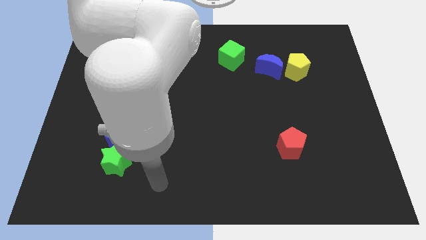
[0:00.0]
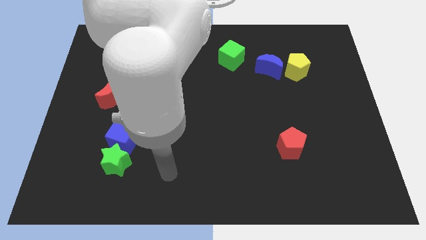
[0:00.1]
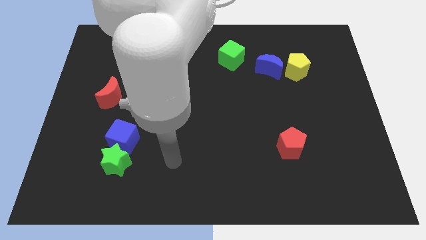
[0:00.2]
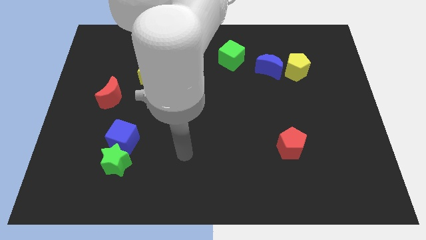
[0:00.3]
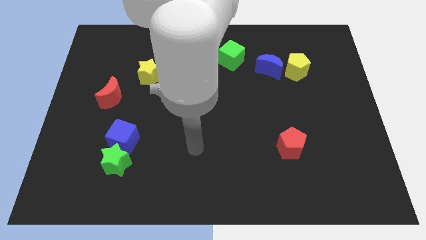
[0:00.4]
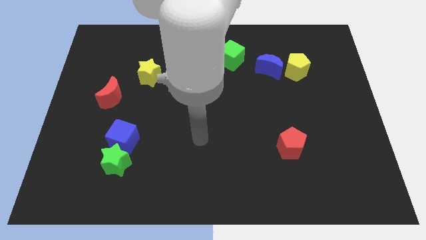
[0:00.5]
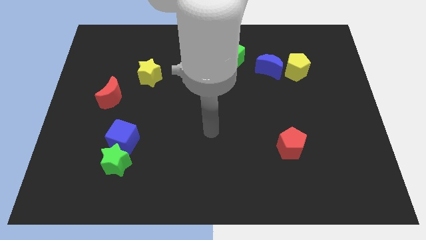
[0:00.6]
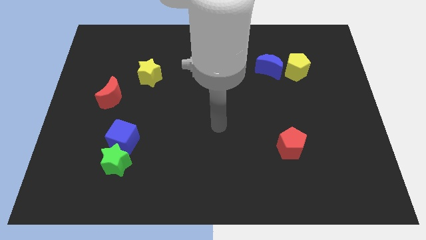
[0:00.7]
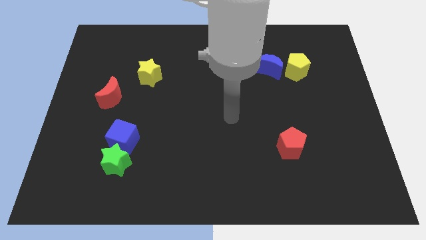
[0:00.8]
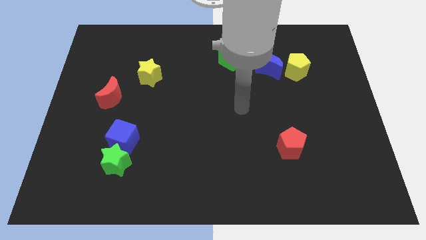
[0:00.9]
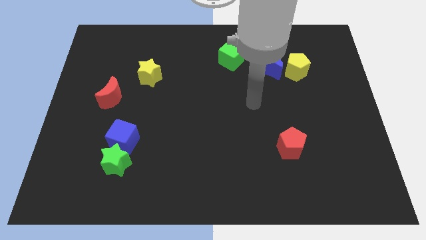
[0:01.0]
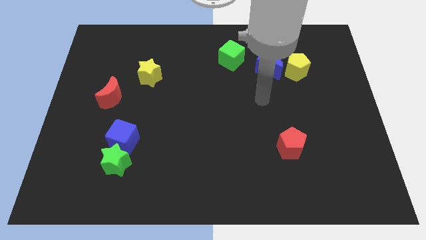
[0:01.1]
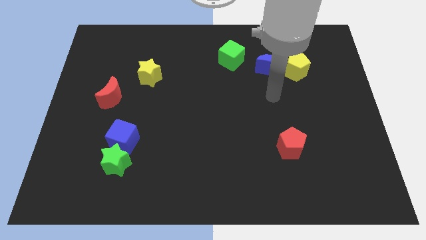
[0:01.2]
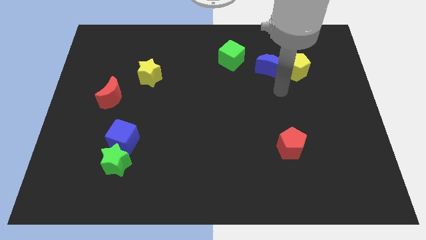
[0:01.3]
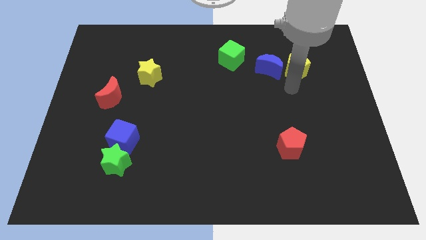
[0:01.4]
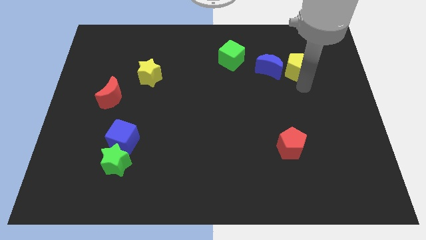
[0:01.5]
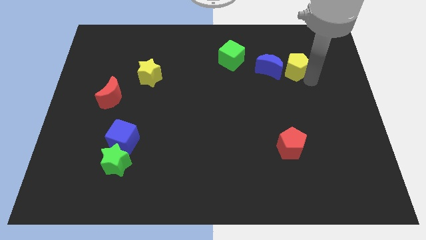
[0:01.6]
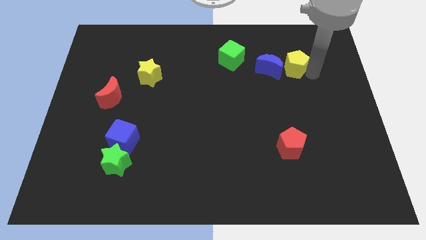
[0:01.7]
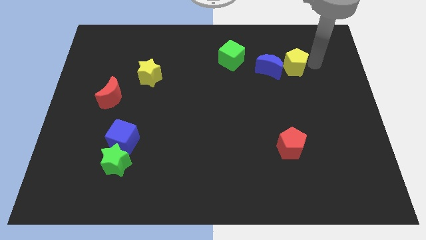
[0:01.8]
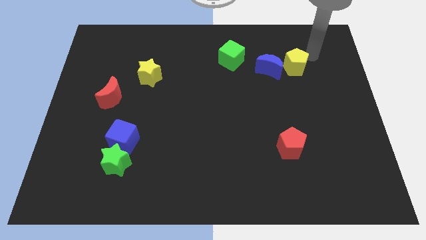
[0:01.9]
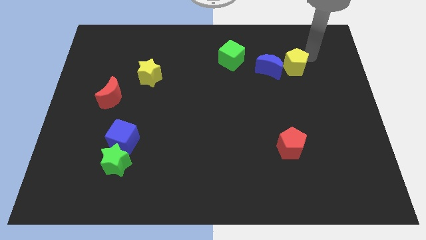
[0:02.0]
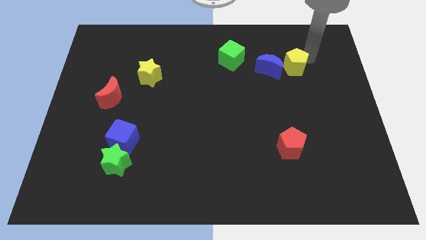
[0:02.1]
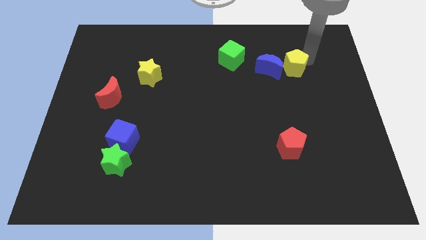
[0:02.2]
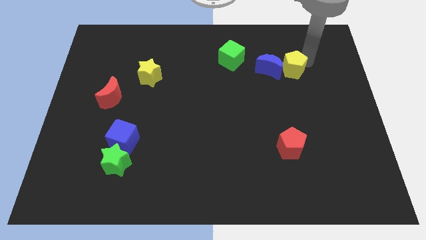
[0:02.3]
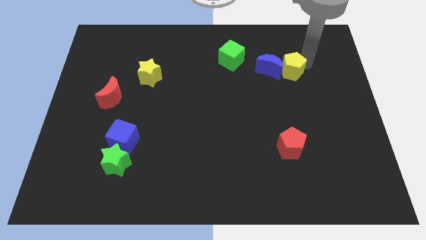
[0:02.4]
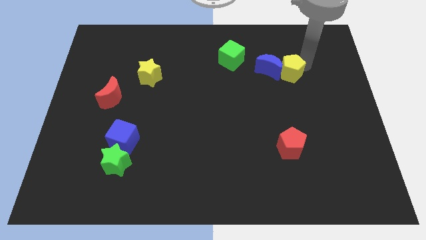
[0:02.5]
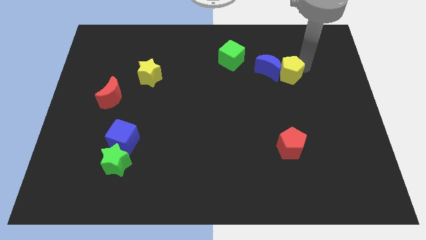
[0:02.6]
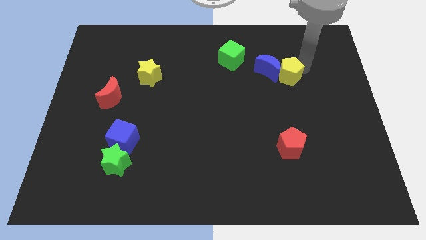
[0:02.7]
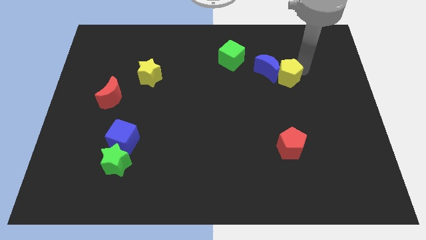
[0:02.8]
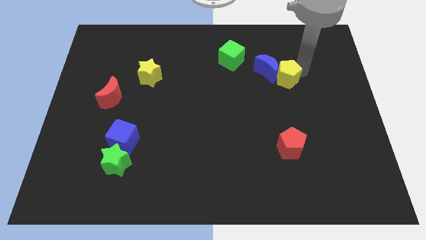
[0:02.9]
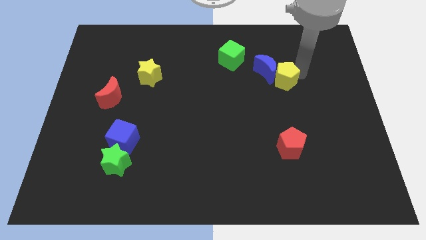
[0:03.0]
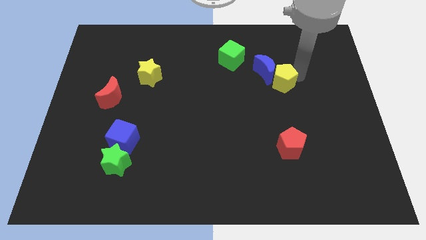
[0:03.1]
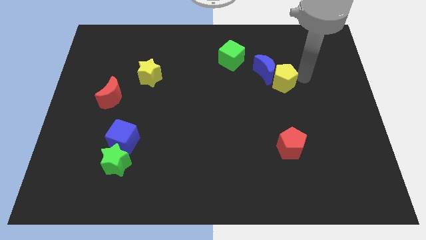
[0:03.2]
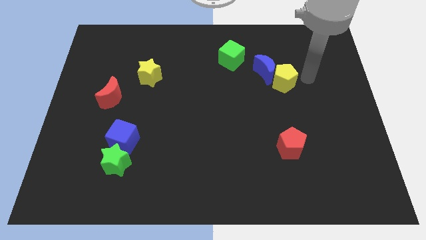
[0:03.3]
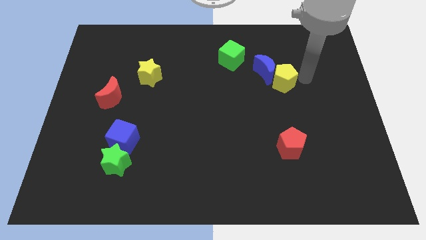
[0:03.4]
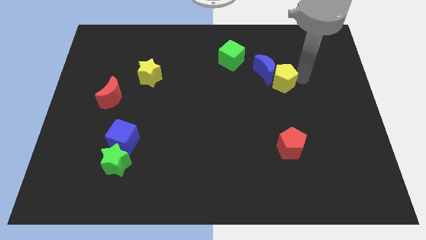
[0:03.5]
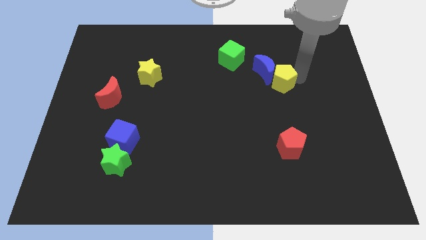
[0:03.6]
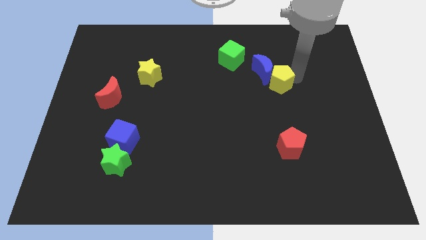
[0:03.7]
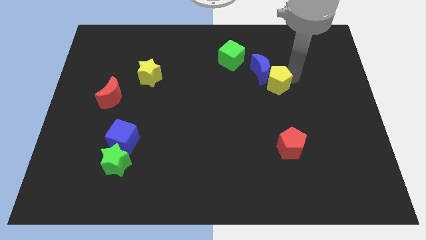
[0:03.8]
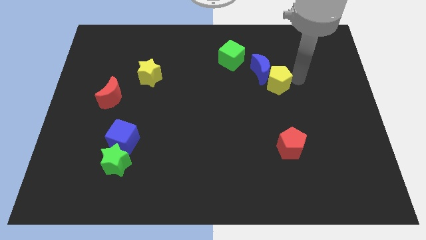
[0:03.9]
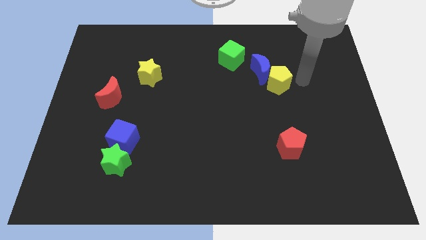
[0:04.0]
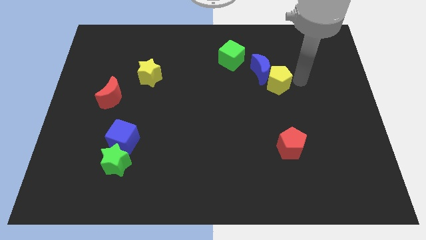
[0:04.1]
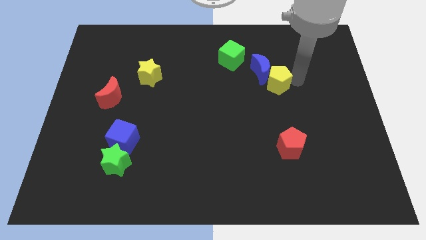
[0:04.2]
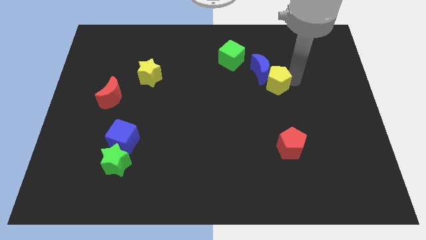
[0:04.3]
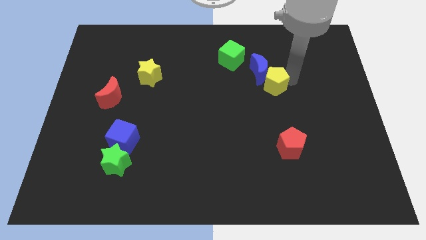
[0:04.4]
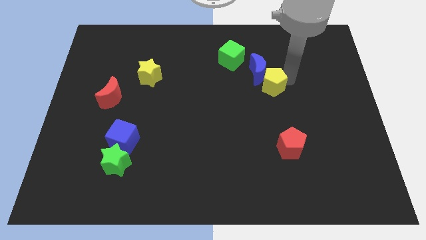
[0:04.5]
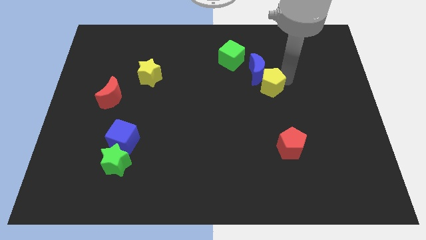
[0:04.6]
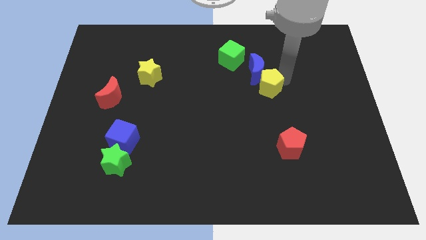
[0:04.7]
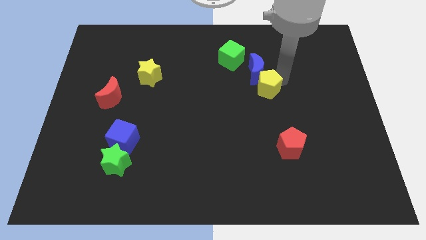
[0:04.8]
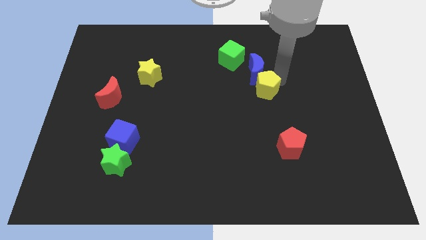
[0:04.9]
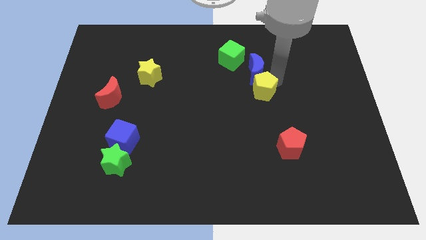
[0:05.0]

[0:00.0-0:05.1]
move the yellow pentagon to the center of the board

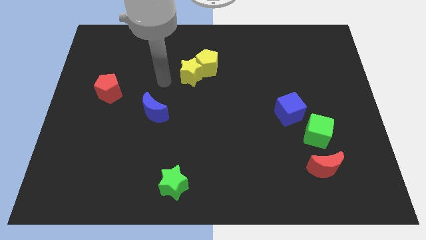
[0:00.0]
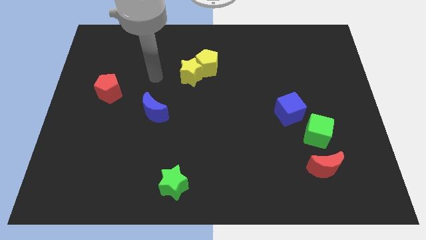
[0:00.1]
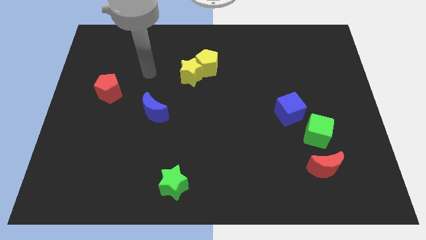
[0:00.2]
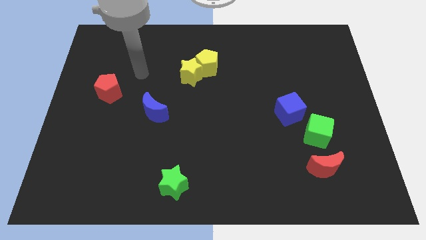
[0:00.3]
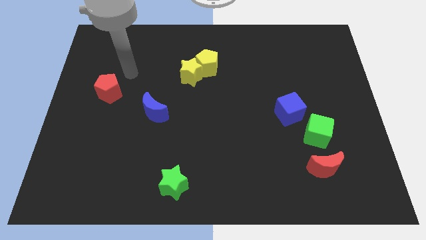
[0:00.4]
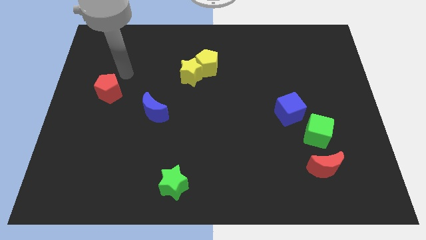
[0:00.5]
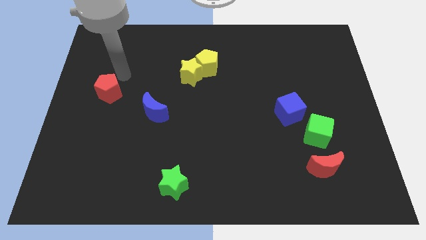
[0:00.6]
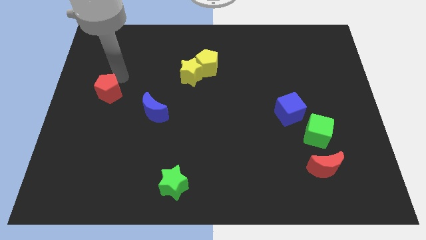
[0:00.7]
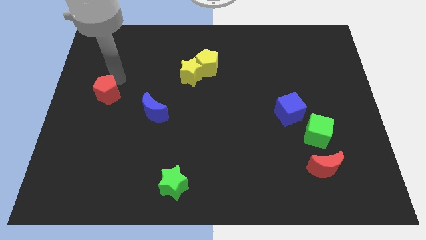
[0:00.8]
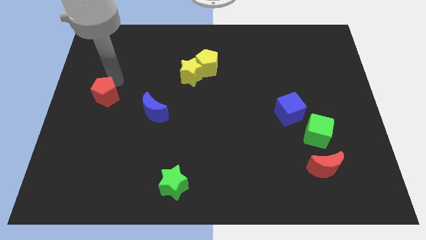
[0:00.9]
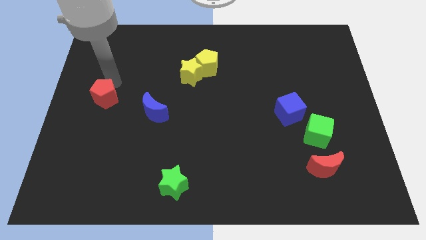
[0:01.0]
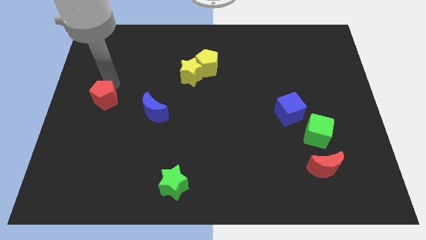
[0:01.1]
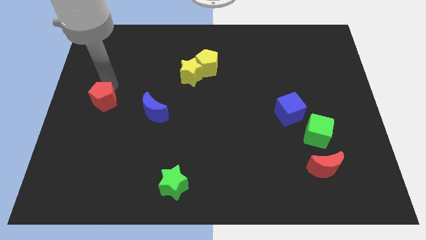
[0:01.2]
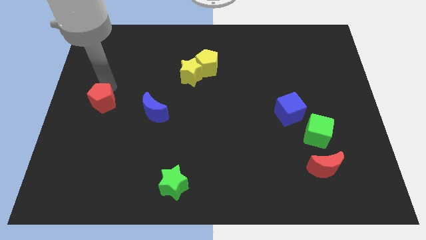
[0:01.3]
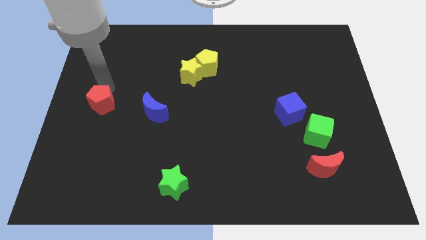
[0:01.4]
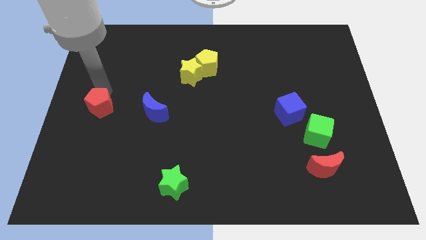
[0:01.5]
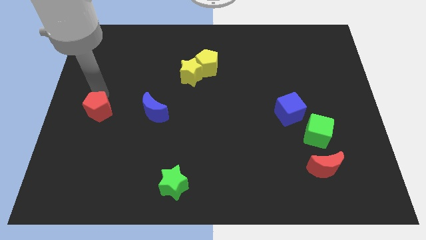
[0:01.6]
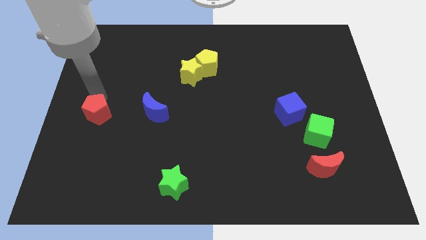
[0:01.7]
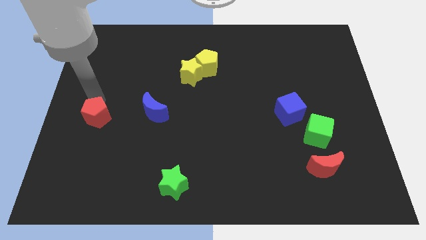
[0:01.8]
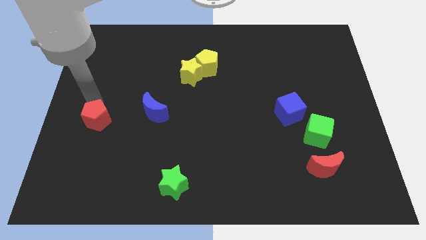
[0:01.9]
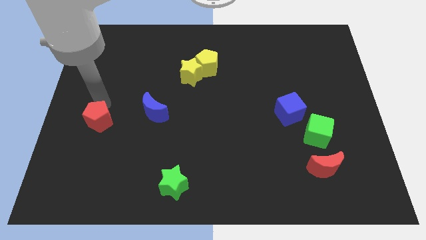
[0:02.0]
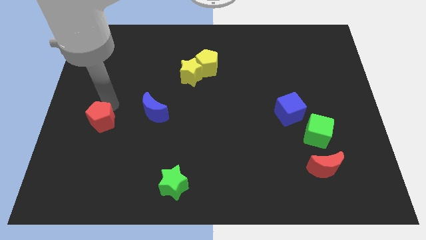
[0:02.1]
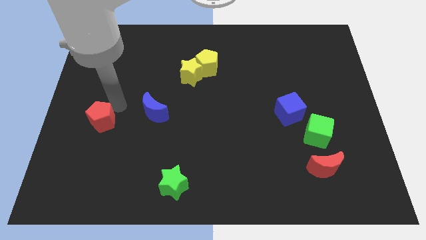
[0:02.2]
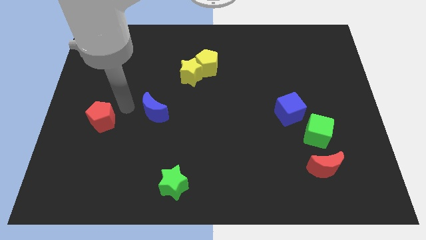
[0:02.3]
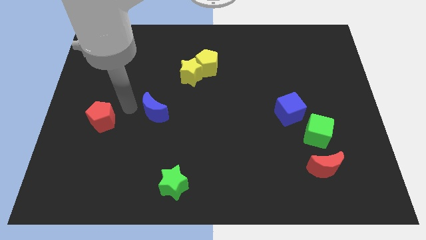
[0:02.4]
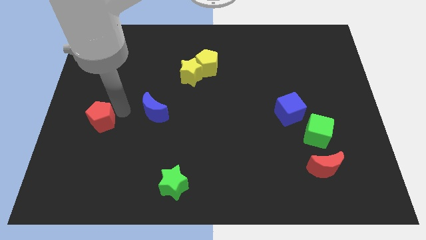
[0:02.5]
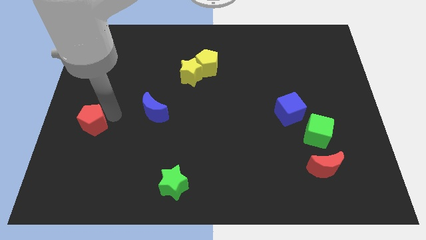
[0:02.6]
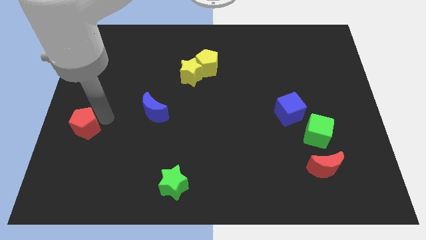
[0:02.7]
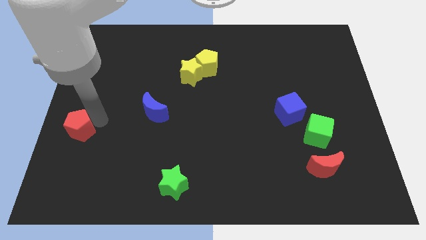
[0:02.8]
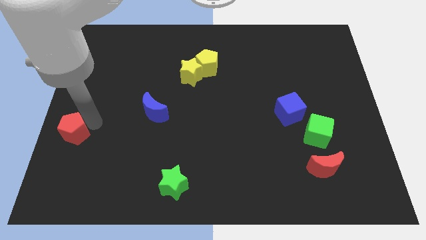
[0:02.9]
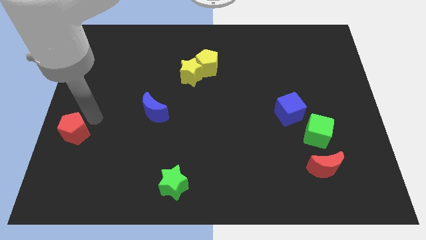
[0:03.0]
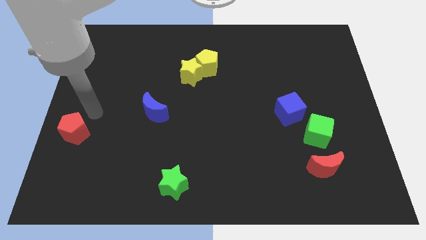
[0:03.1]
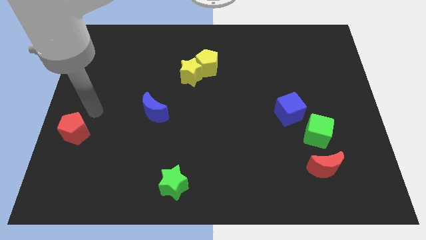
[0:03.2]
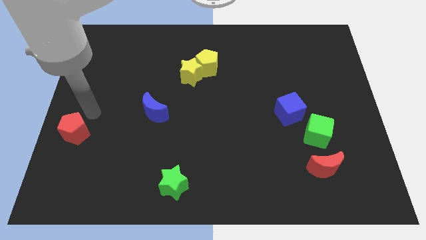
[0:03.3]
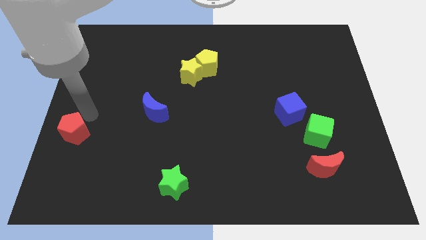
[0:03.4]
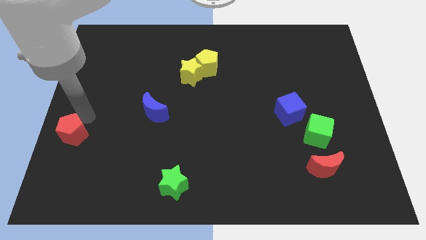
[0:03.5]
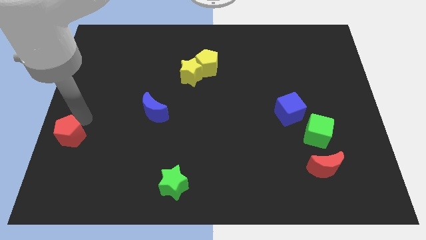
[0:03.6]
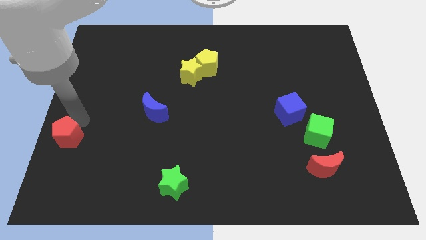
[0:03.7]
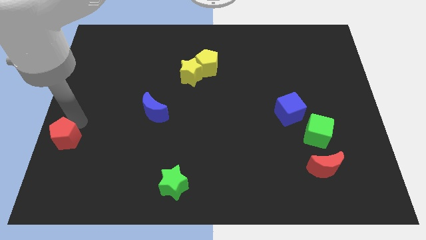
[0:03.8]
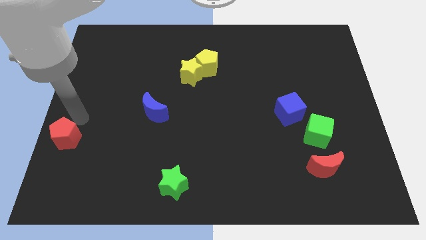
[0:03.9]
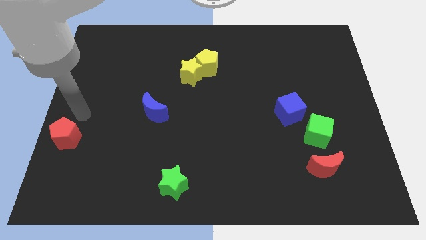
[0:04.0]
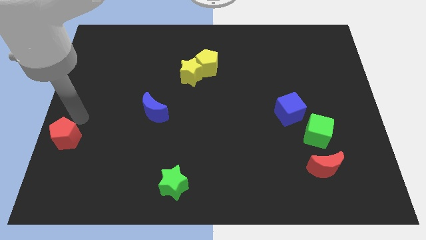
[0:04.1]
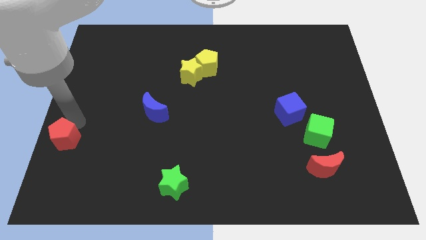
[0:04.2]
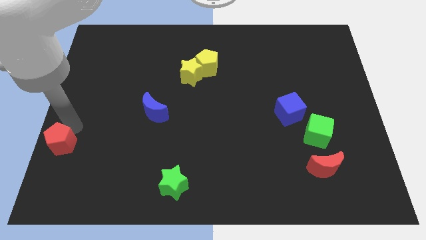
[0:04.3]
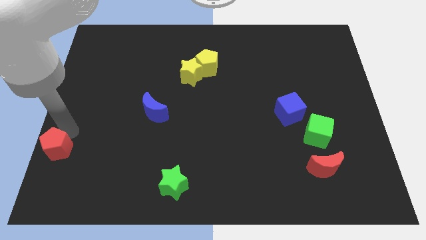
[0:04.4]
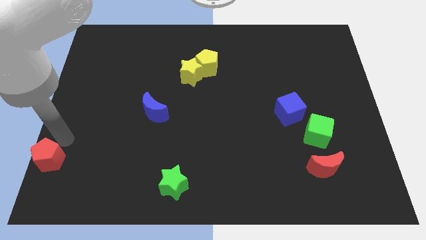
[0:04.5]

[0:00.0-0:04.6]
put the red pentagon to the lower left corner
